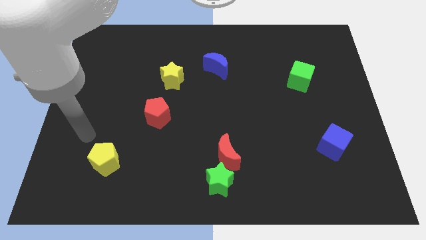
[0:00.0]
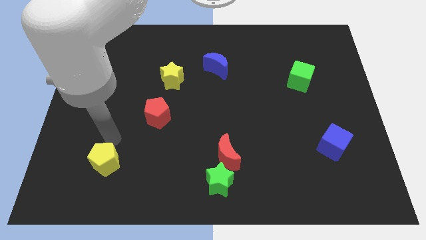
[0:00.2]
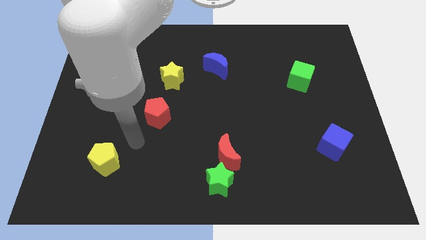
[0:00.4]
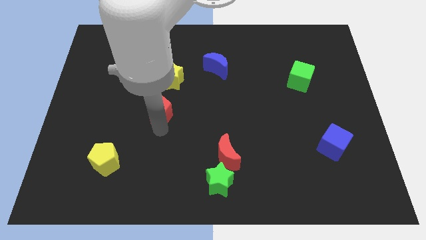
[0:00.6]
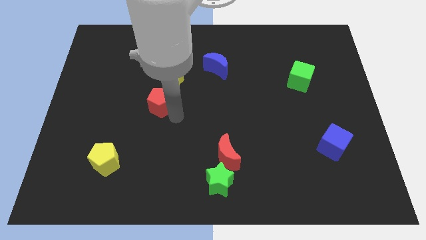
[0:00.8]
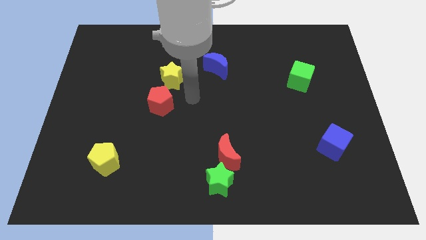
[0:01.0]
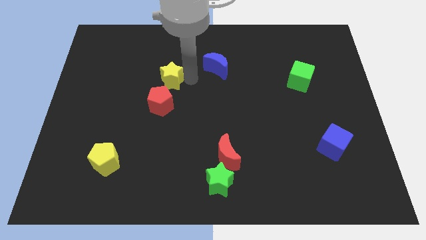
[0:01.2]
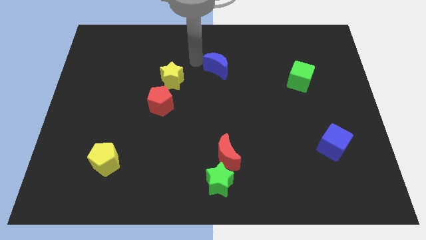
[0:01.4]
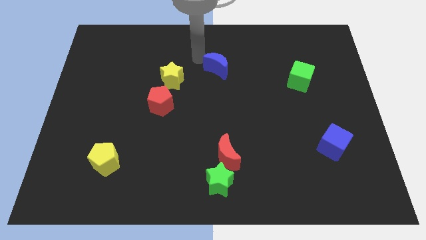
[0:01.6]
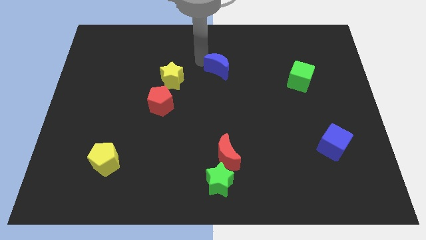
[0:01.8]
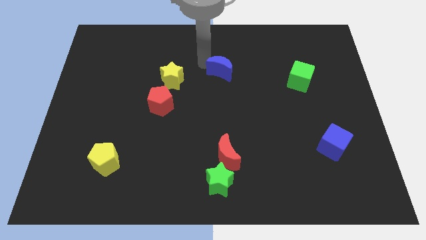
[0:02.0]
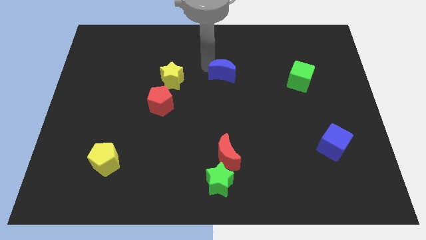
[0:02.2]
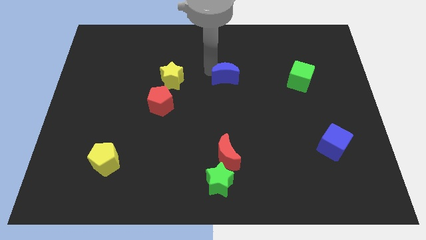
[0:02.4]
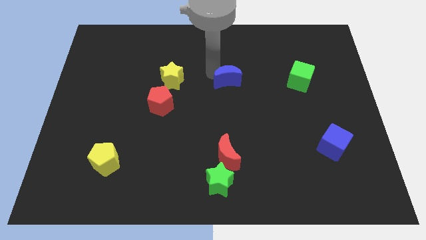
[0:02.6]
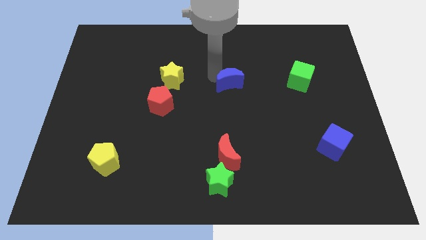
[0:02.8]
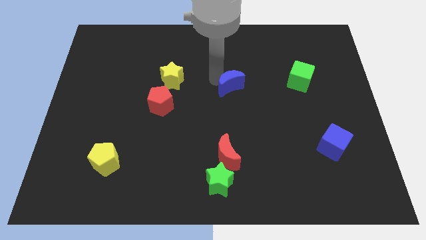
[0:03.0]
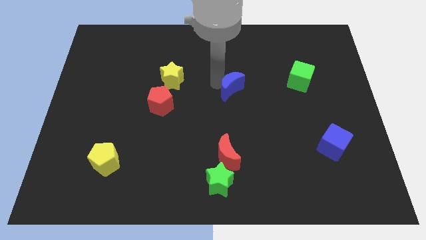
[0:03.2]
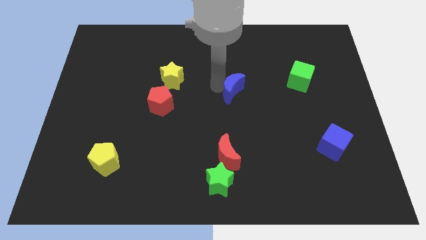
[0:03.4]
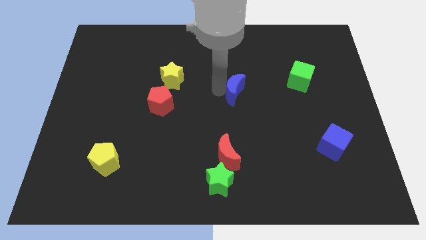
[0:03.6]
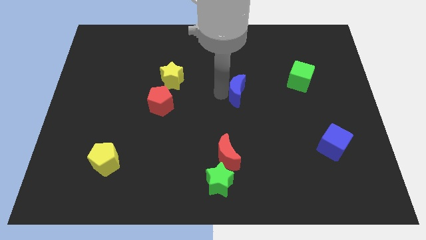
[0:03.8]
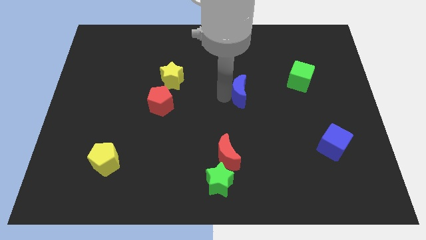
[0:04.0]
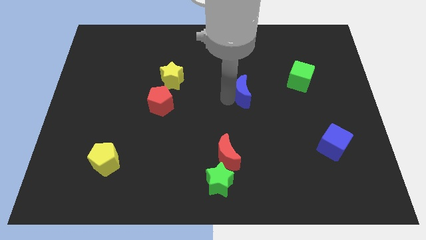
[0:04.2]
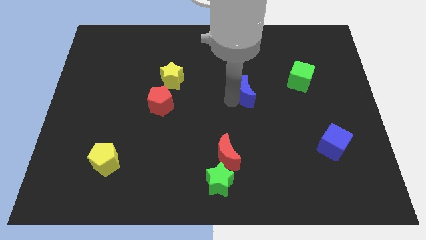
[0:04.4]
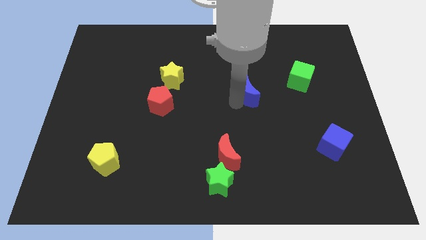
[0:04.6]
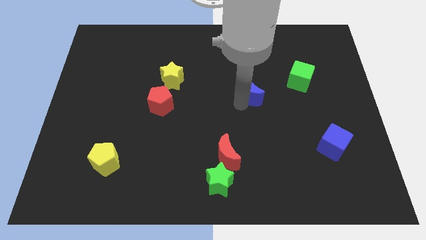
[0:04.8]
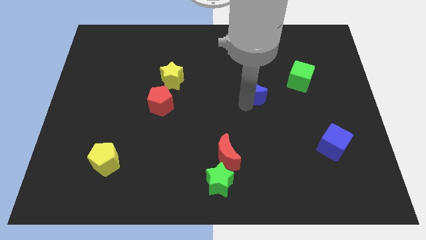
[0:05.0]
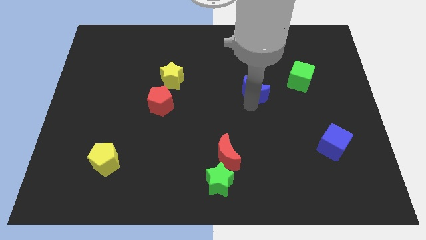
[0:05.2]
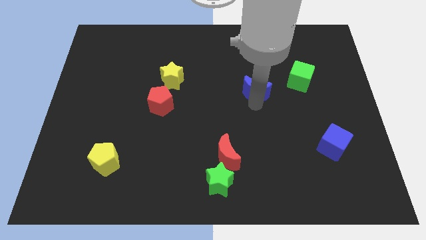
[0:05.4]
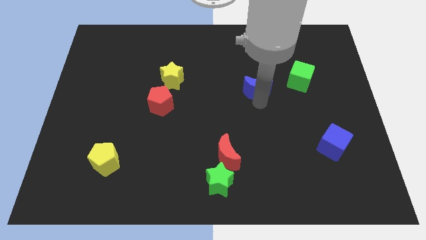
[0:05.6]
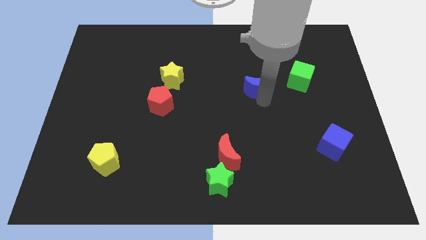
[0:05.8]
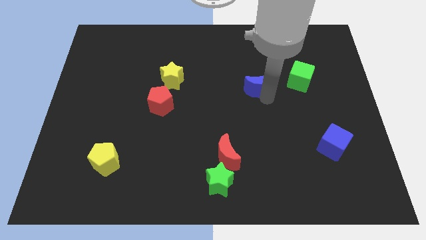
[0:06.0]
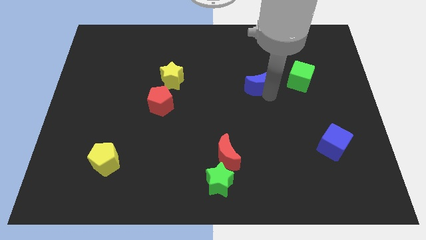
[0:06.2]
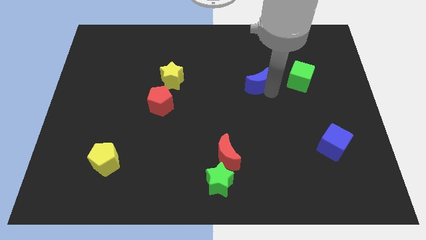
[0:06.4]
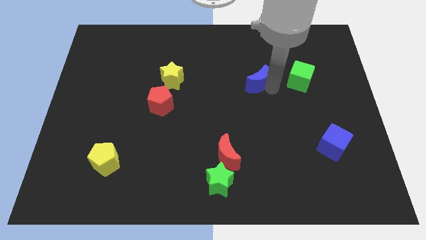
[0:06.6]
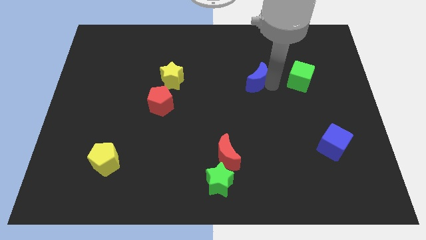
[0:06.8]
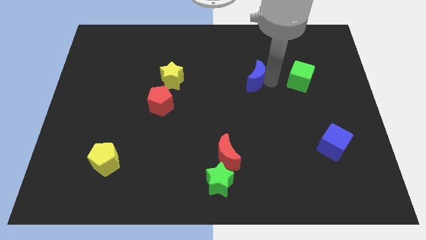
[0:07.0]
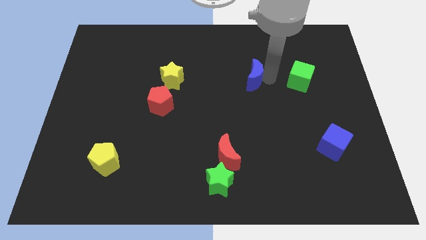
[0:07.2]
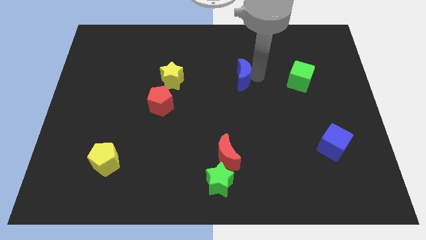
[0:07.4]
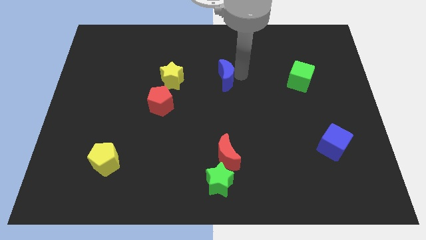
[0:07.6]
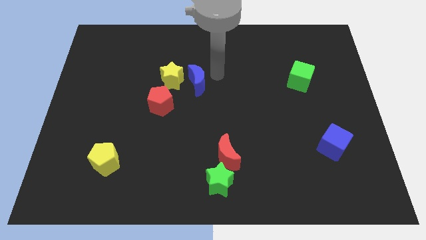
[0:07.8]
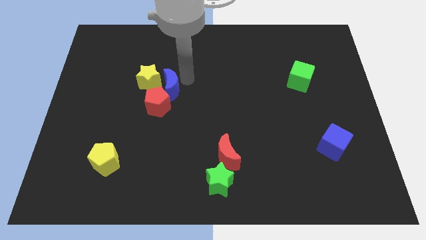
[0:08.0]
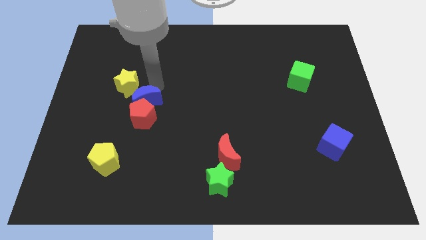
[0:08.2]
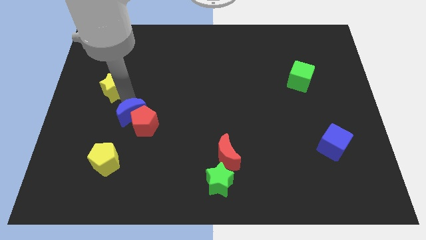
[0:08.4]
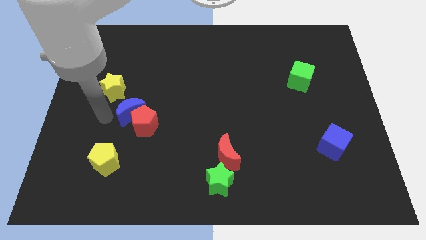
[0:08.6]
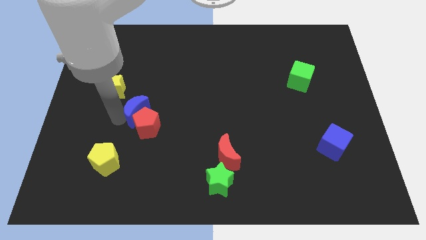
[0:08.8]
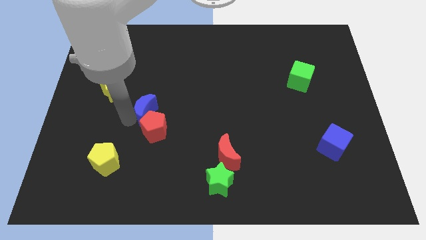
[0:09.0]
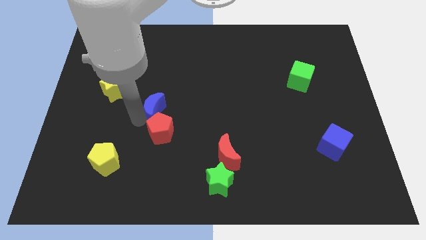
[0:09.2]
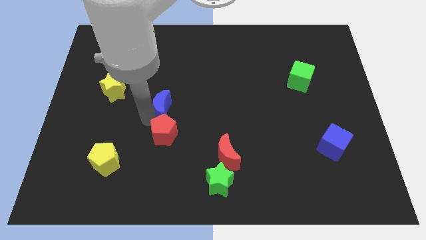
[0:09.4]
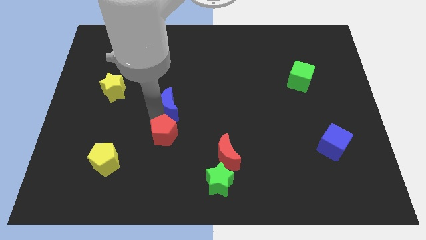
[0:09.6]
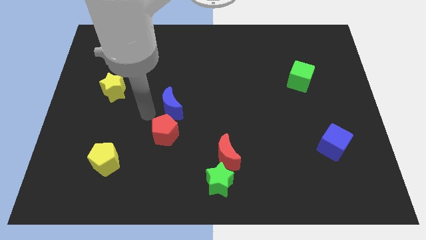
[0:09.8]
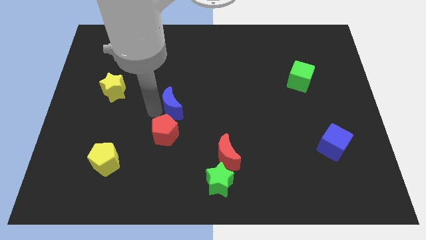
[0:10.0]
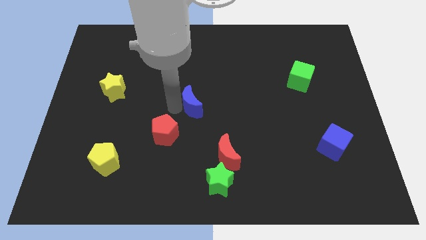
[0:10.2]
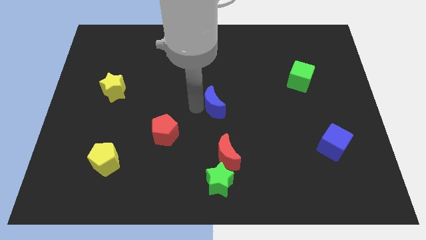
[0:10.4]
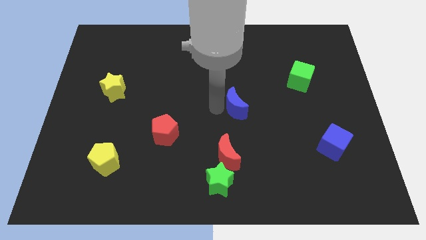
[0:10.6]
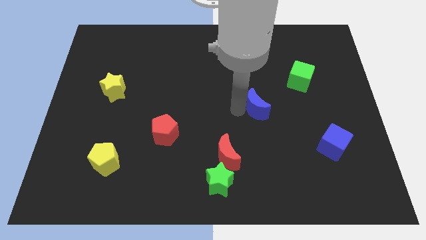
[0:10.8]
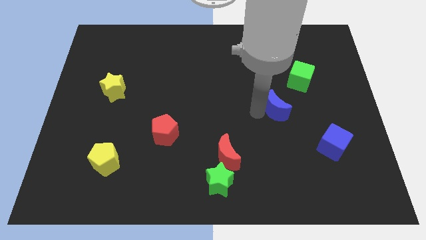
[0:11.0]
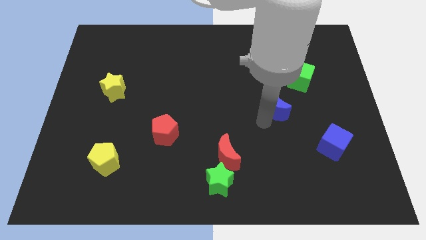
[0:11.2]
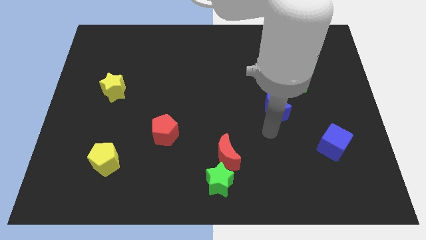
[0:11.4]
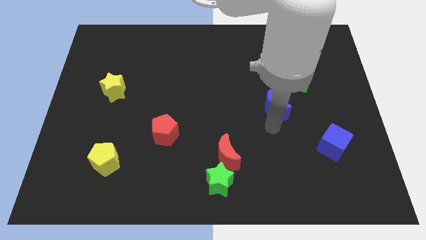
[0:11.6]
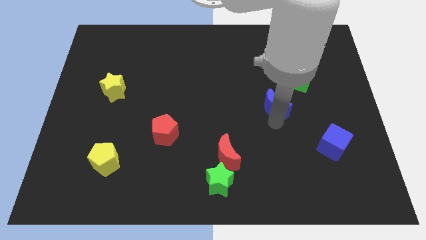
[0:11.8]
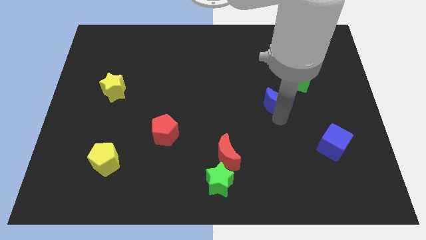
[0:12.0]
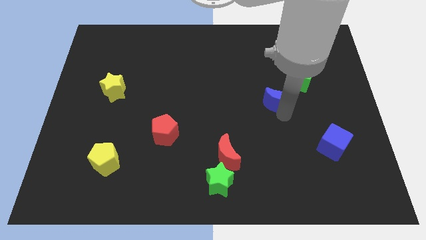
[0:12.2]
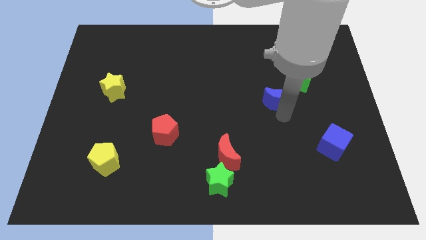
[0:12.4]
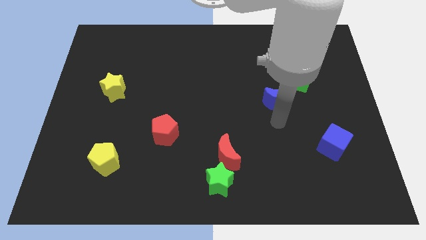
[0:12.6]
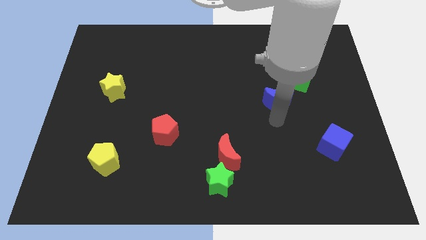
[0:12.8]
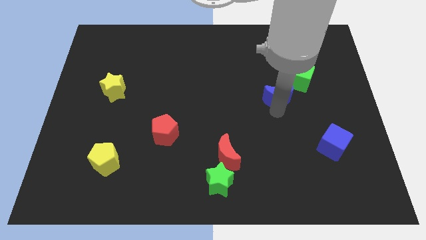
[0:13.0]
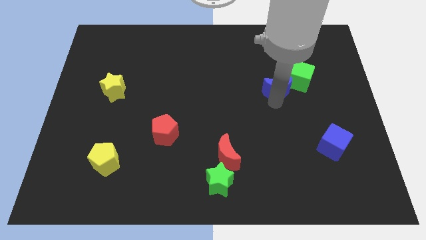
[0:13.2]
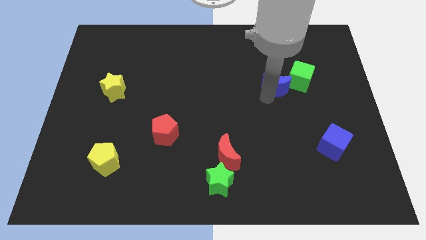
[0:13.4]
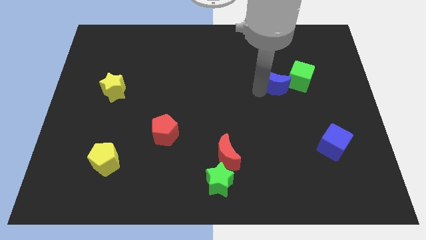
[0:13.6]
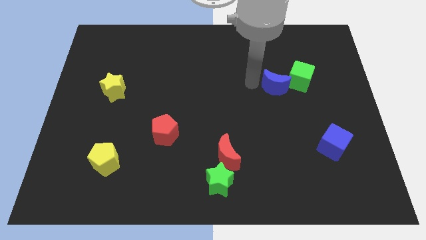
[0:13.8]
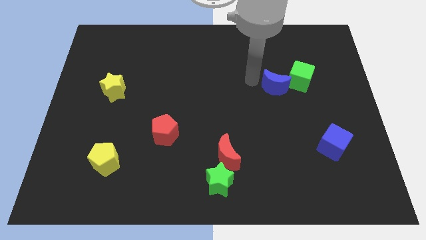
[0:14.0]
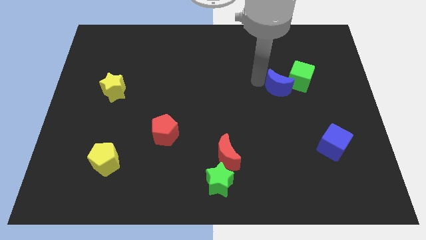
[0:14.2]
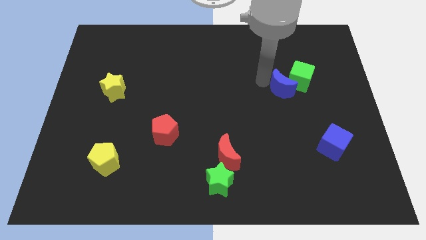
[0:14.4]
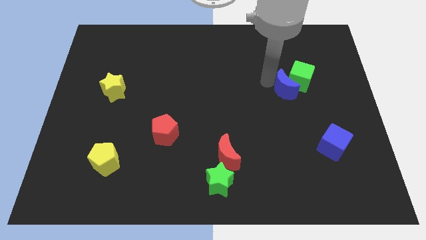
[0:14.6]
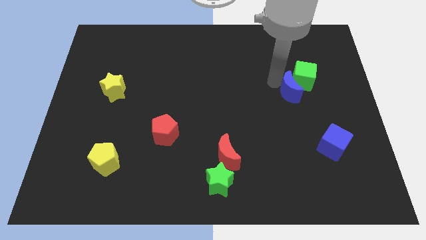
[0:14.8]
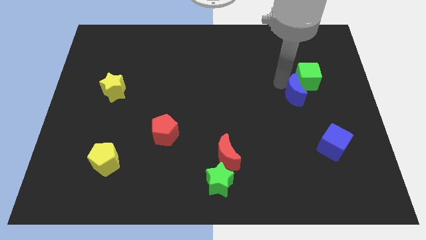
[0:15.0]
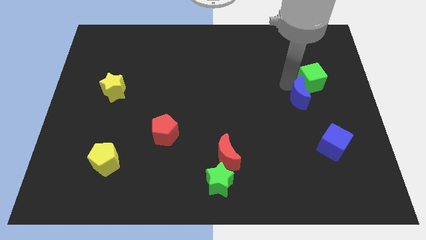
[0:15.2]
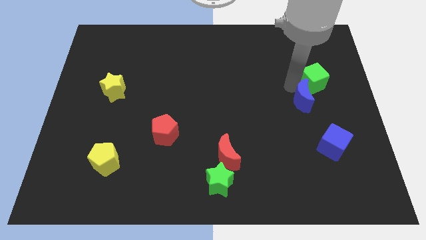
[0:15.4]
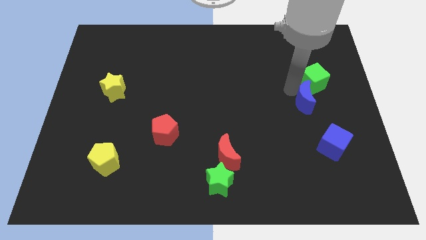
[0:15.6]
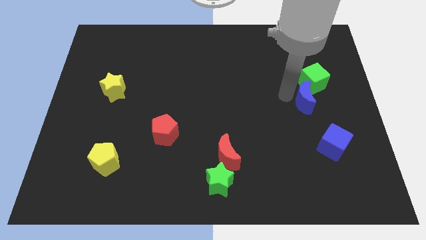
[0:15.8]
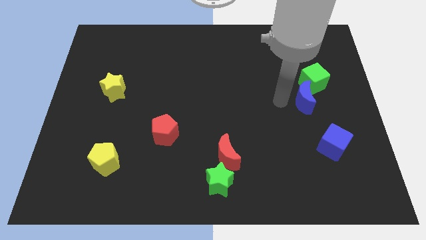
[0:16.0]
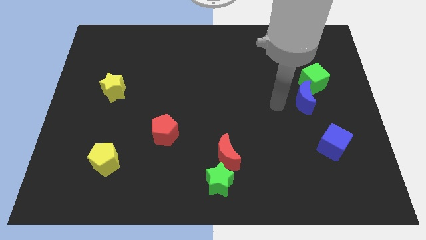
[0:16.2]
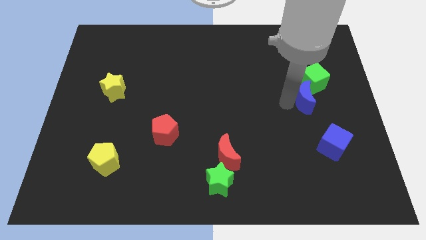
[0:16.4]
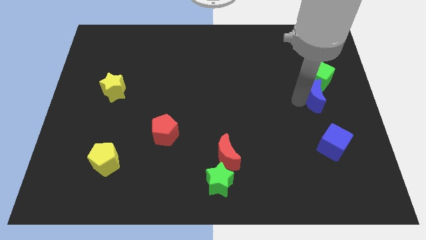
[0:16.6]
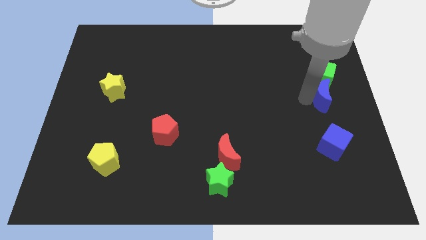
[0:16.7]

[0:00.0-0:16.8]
put the blue moon to the center right
